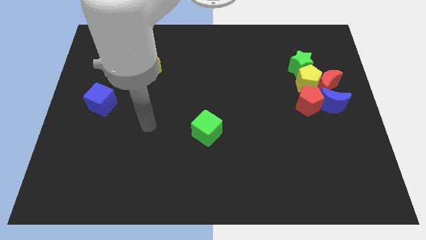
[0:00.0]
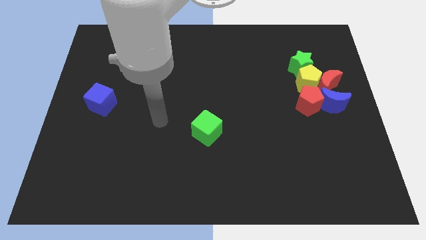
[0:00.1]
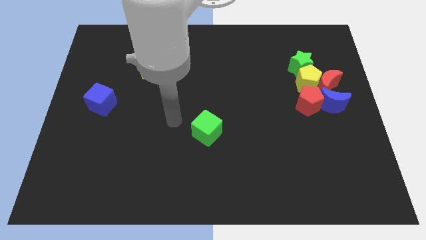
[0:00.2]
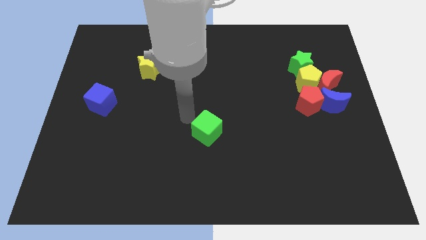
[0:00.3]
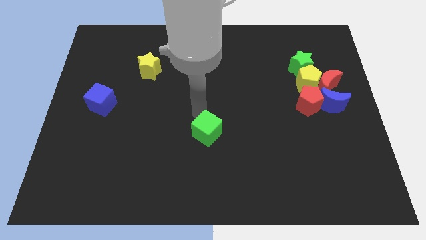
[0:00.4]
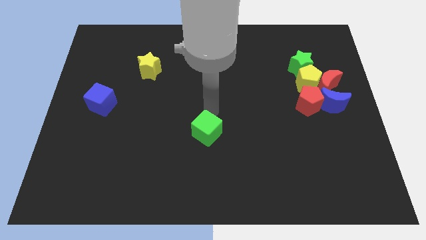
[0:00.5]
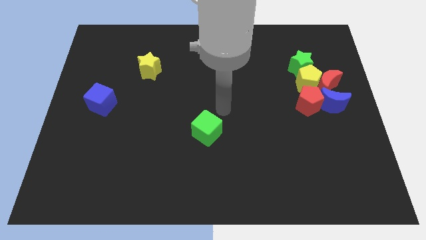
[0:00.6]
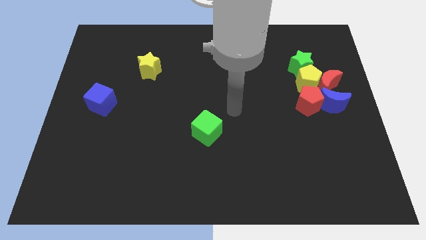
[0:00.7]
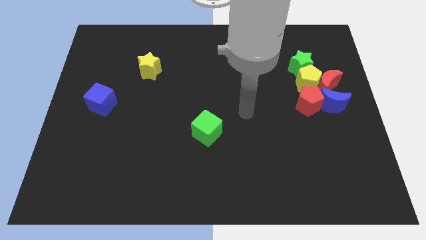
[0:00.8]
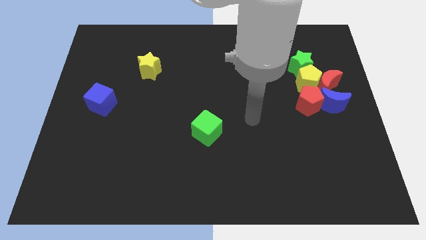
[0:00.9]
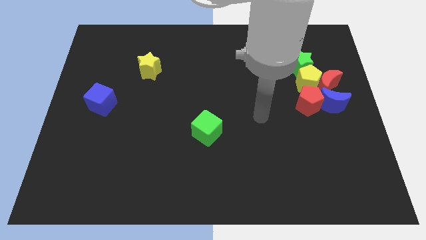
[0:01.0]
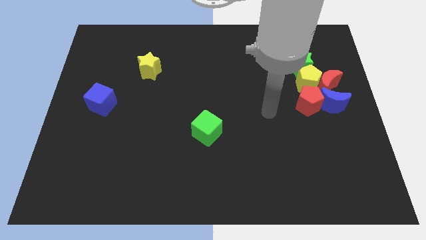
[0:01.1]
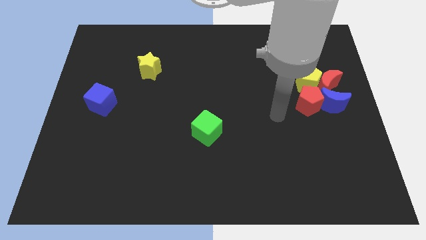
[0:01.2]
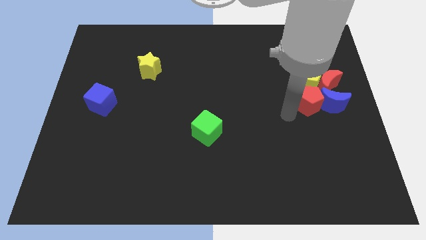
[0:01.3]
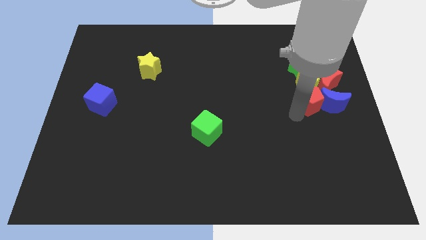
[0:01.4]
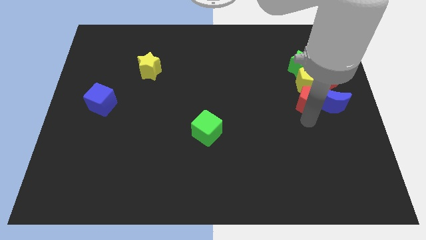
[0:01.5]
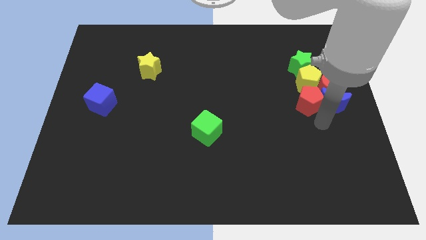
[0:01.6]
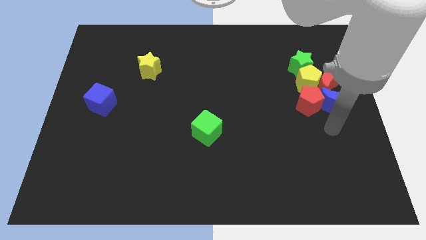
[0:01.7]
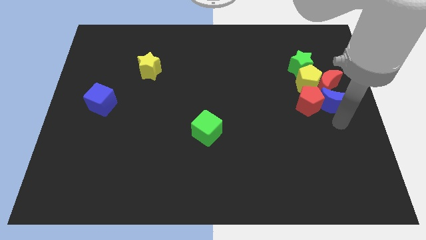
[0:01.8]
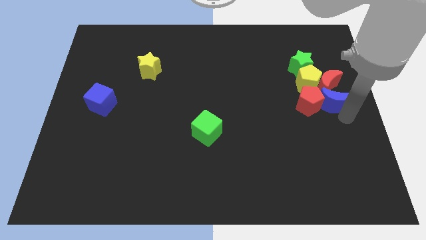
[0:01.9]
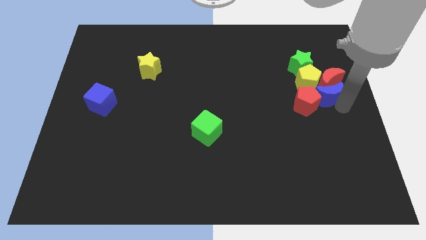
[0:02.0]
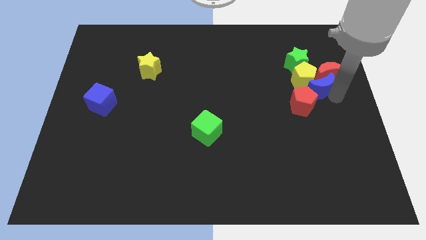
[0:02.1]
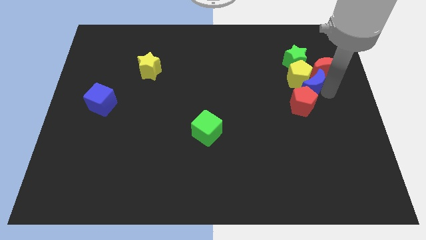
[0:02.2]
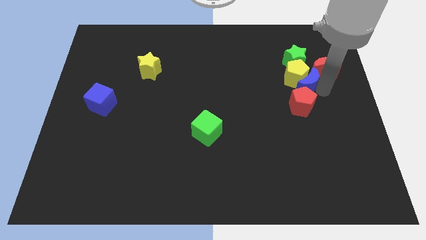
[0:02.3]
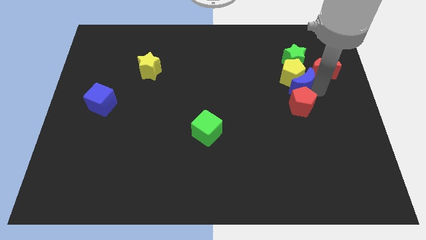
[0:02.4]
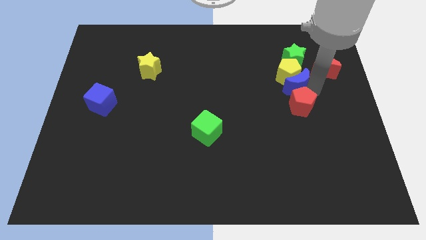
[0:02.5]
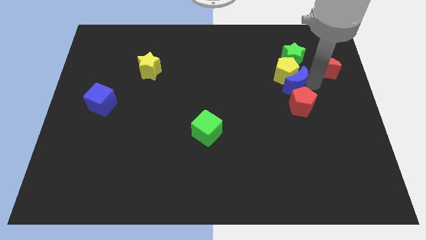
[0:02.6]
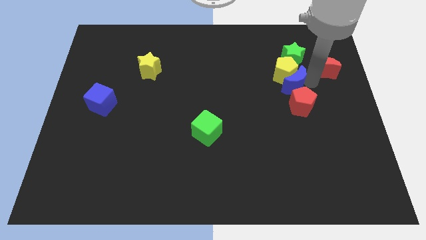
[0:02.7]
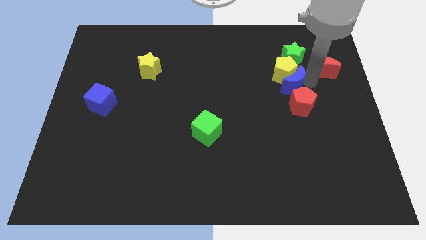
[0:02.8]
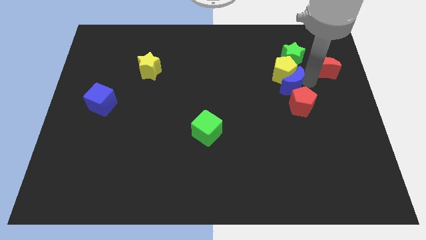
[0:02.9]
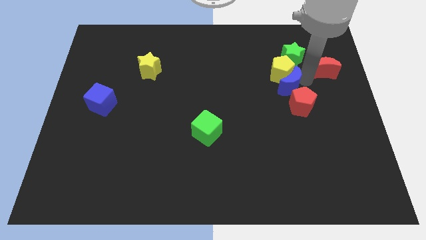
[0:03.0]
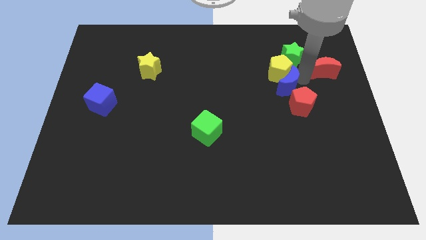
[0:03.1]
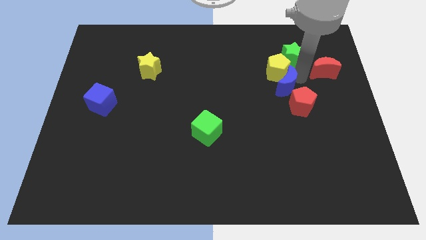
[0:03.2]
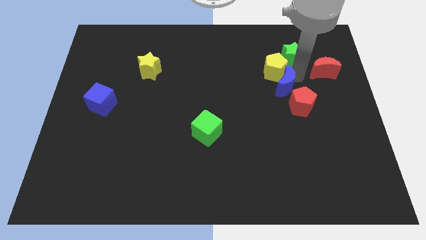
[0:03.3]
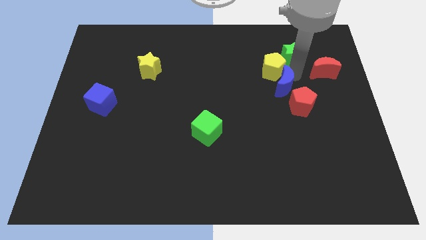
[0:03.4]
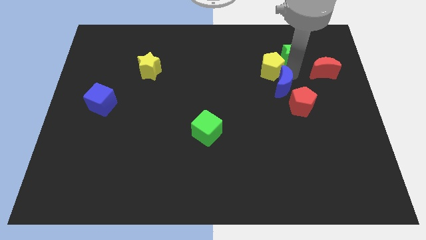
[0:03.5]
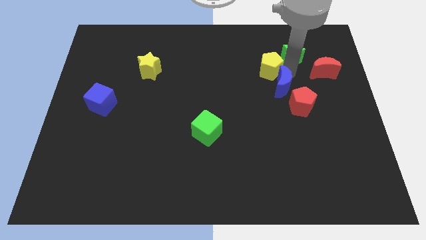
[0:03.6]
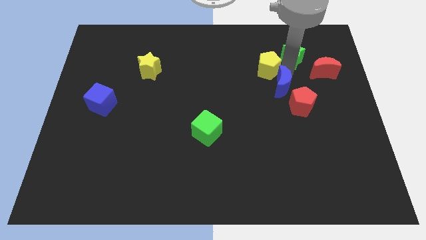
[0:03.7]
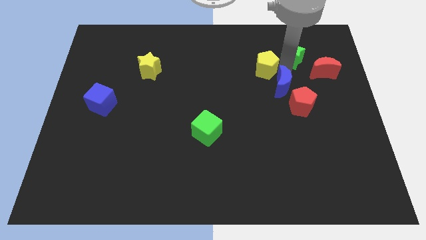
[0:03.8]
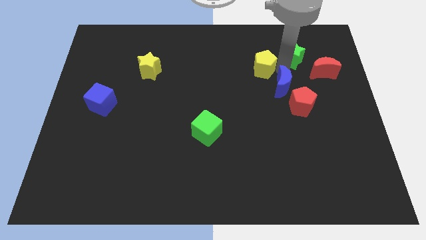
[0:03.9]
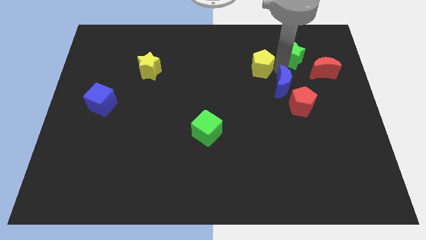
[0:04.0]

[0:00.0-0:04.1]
move the yellow pentagon away from the group of blocks

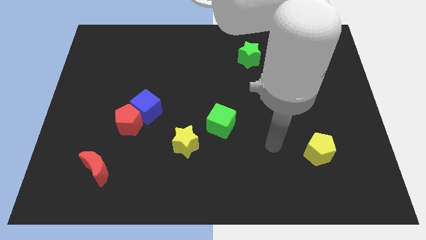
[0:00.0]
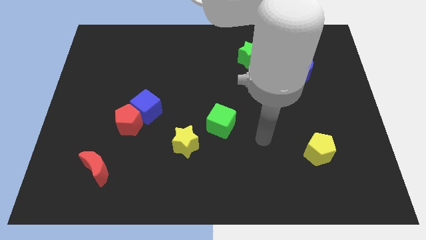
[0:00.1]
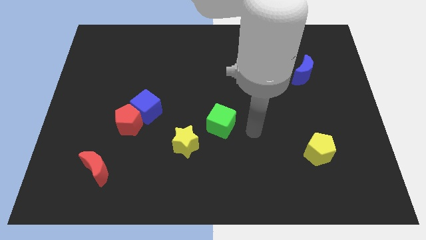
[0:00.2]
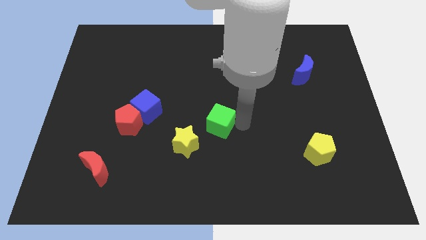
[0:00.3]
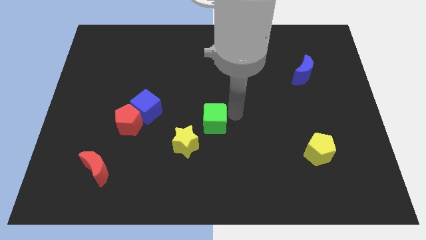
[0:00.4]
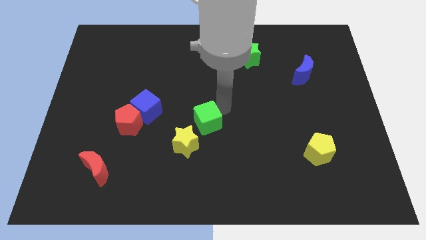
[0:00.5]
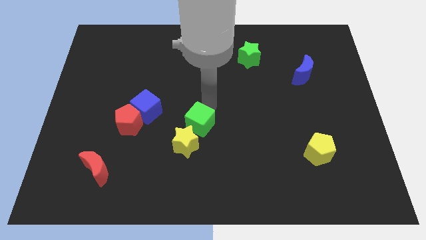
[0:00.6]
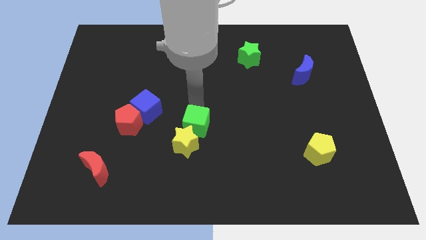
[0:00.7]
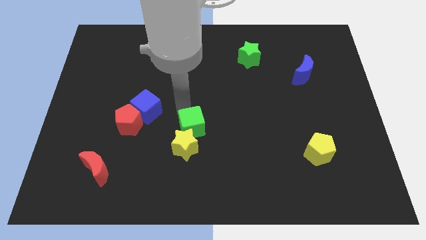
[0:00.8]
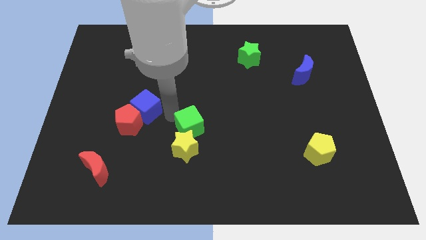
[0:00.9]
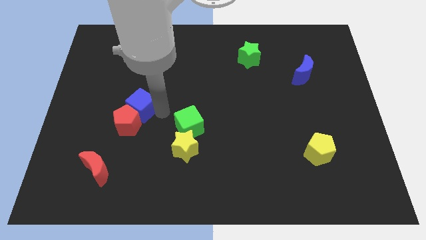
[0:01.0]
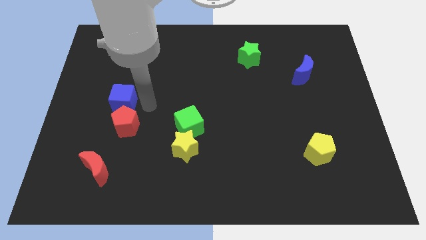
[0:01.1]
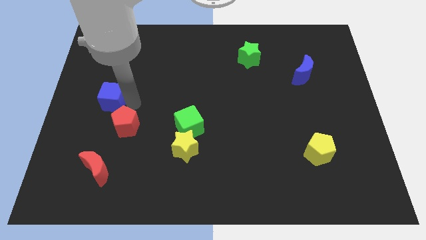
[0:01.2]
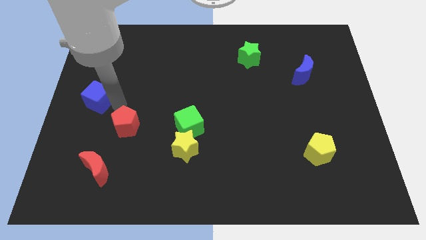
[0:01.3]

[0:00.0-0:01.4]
move the red pentagon away from the blue cube

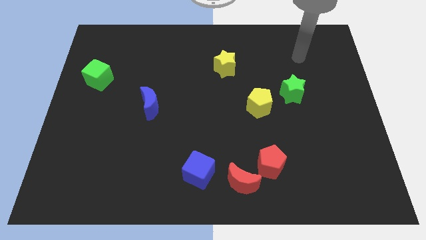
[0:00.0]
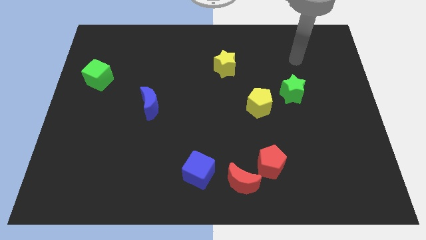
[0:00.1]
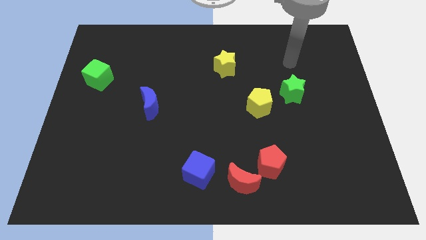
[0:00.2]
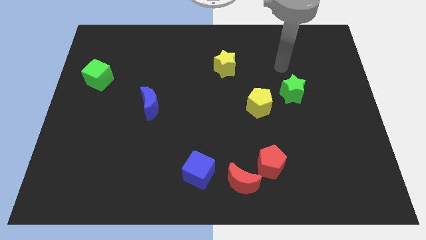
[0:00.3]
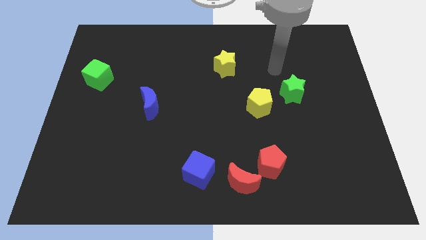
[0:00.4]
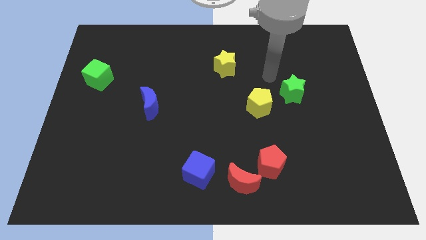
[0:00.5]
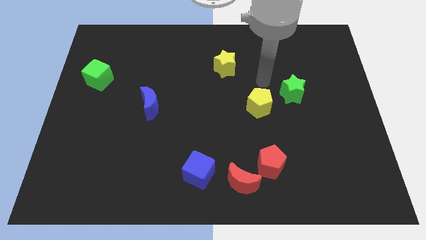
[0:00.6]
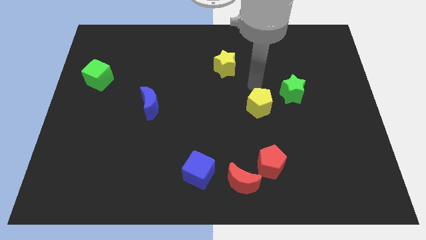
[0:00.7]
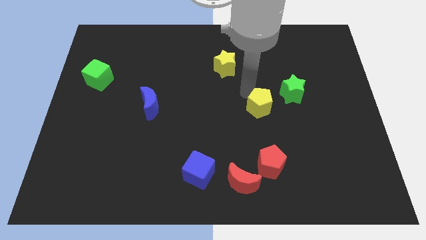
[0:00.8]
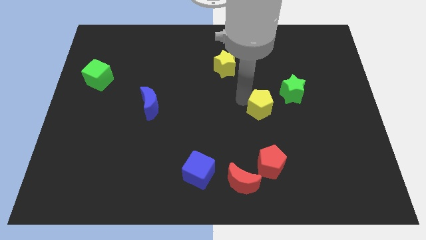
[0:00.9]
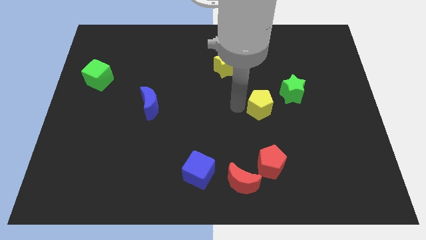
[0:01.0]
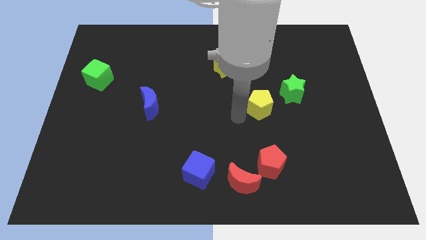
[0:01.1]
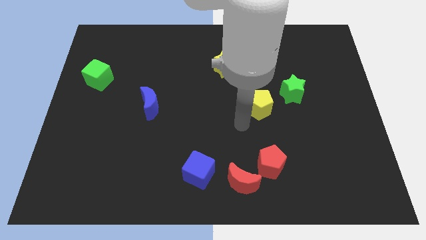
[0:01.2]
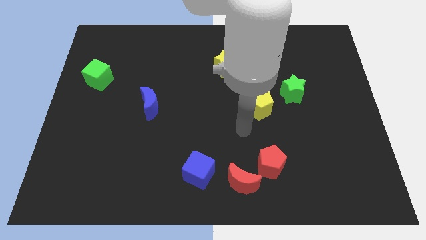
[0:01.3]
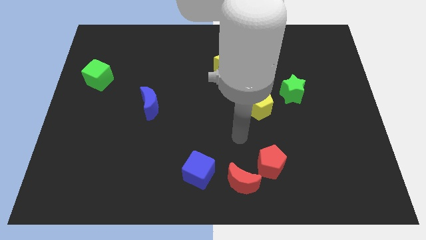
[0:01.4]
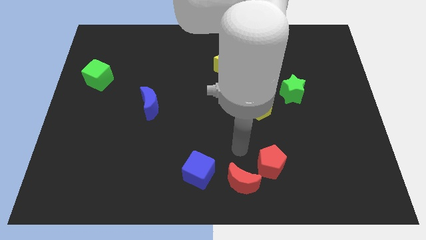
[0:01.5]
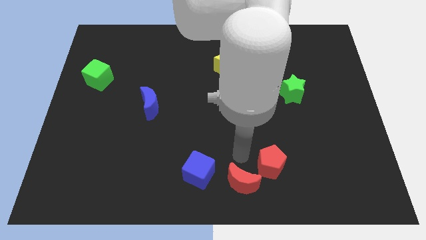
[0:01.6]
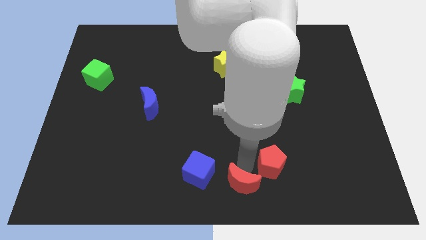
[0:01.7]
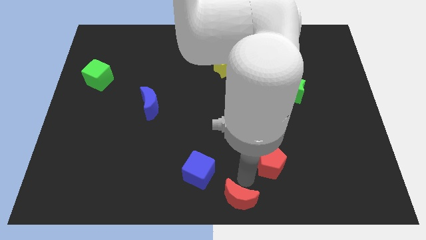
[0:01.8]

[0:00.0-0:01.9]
separate the red pentagon from the red moon

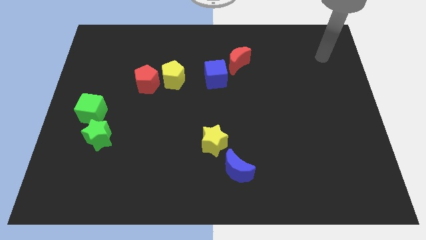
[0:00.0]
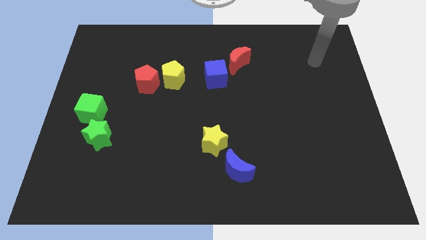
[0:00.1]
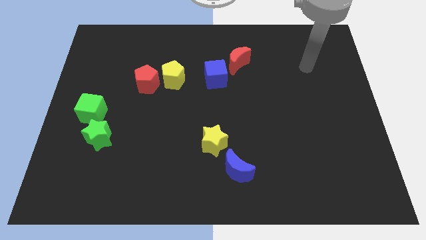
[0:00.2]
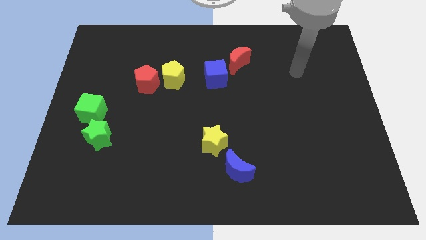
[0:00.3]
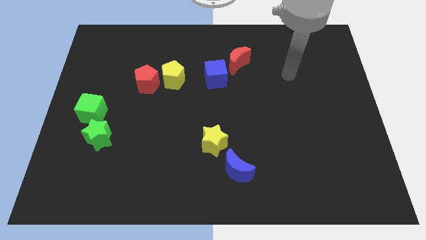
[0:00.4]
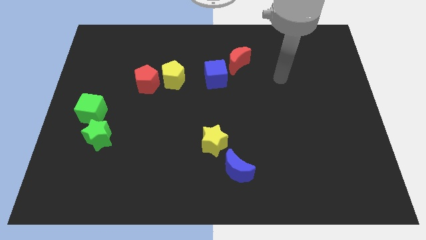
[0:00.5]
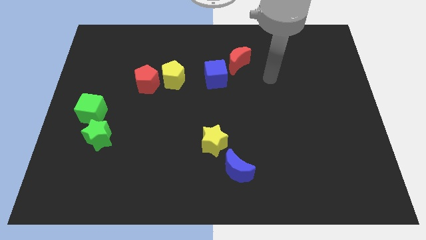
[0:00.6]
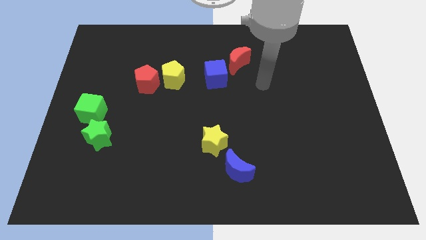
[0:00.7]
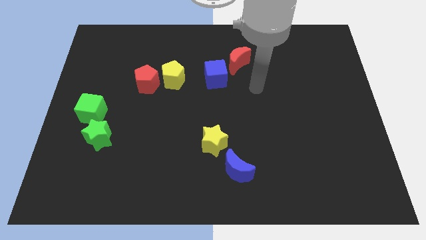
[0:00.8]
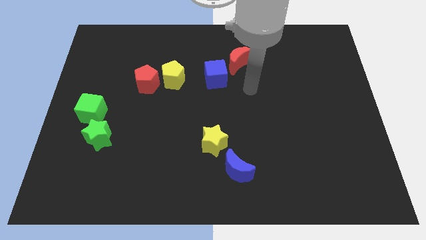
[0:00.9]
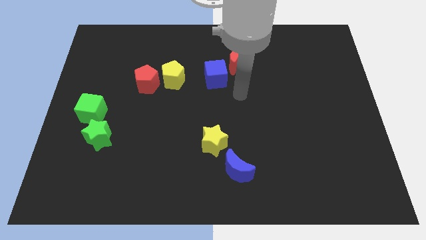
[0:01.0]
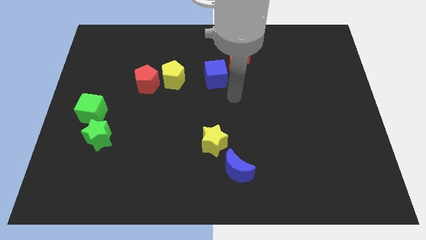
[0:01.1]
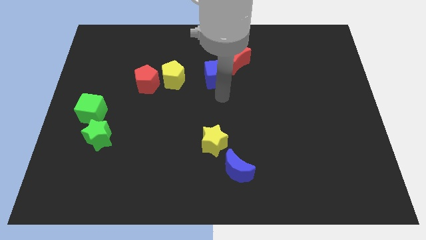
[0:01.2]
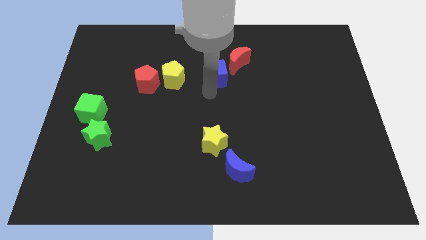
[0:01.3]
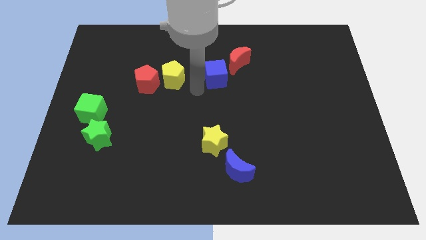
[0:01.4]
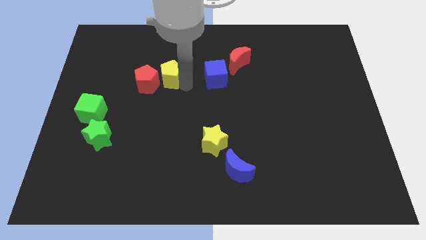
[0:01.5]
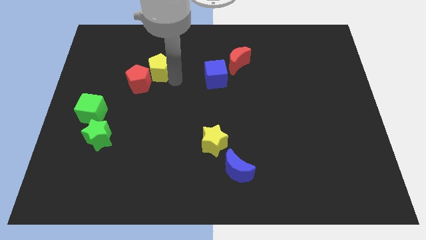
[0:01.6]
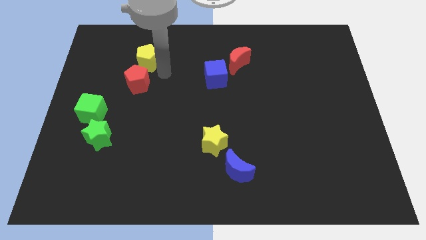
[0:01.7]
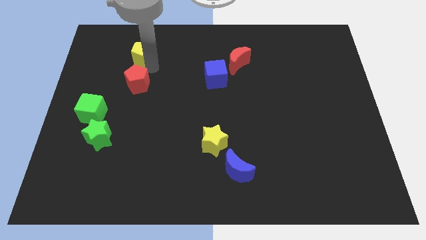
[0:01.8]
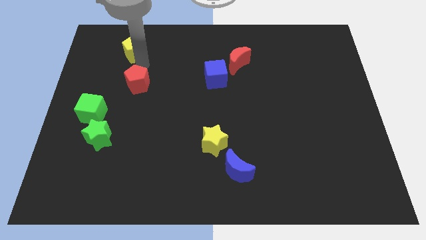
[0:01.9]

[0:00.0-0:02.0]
separate the red pentagon from the yellow pentagon
